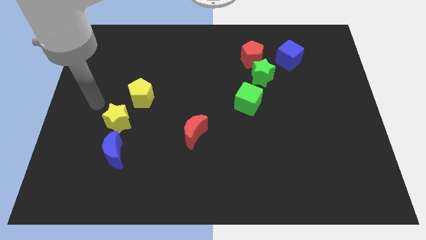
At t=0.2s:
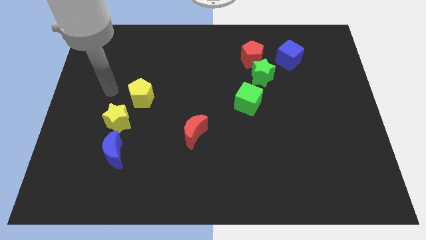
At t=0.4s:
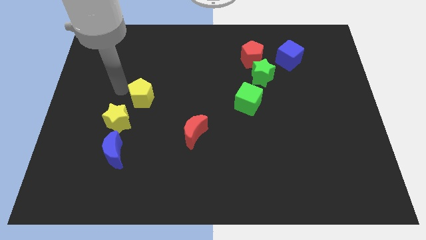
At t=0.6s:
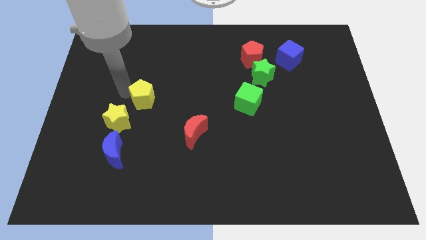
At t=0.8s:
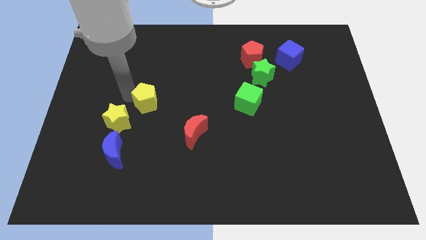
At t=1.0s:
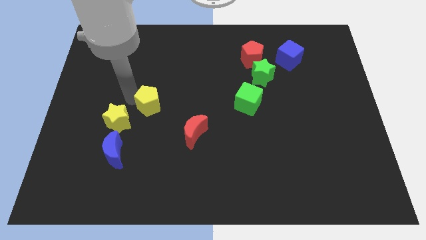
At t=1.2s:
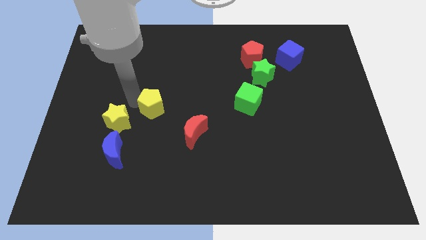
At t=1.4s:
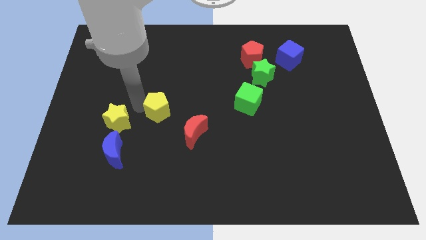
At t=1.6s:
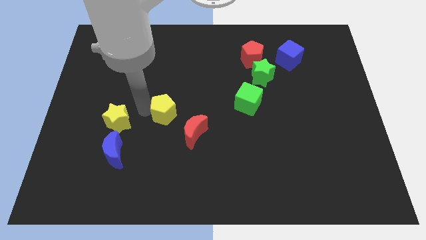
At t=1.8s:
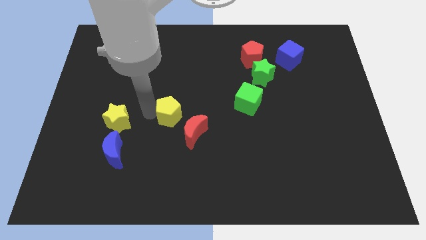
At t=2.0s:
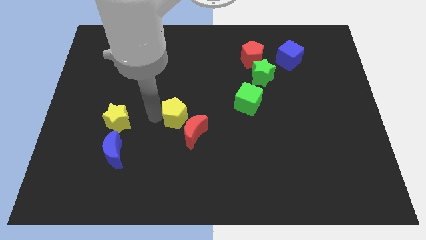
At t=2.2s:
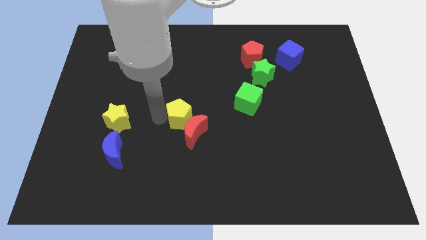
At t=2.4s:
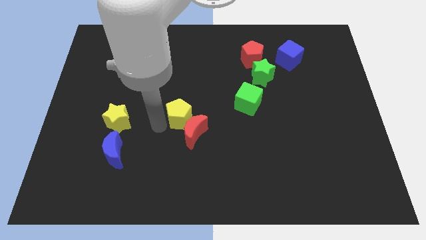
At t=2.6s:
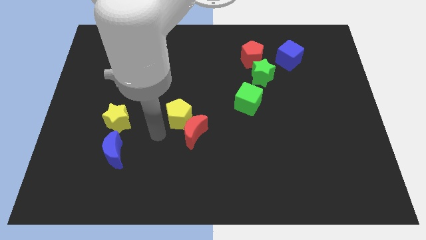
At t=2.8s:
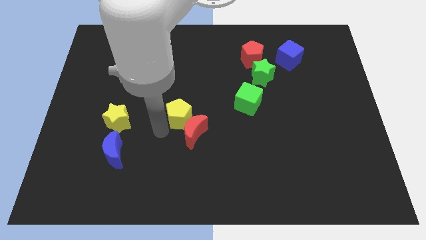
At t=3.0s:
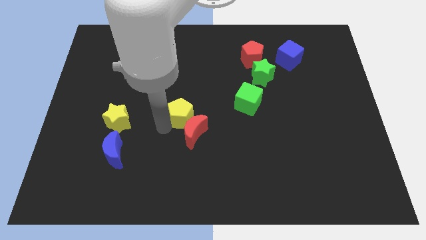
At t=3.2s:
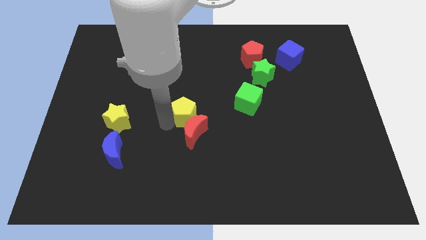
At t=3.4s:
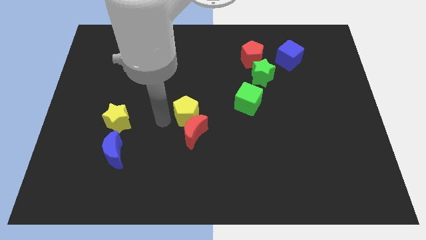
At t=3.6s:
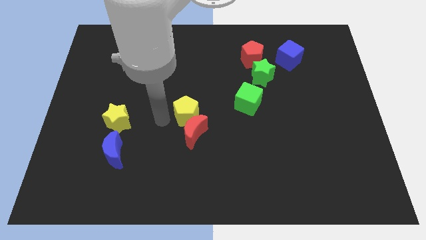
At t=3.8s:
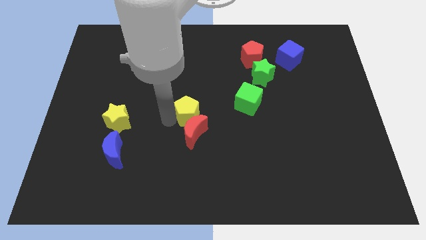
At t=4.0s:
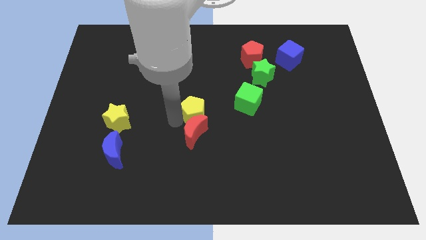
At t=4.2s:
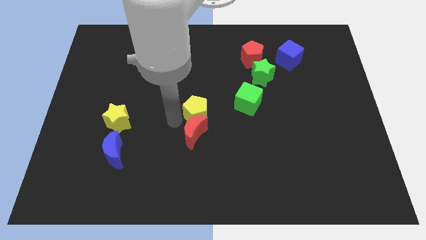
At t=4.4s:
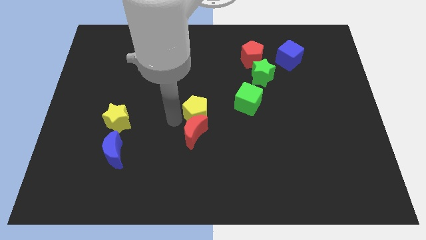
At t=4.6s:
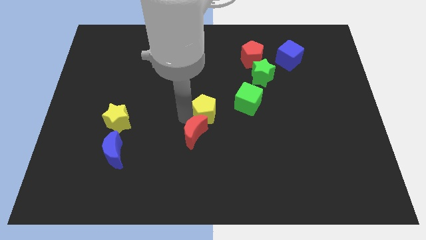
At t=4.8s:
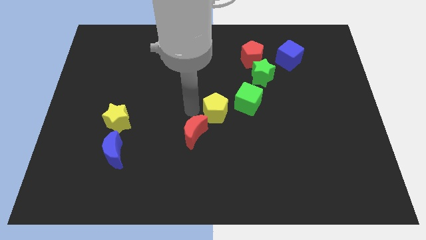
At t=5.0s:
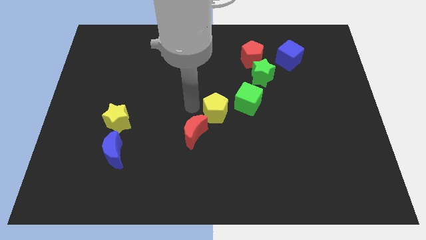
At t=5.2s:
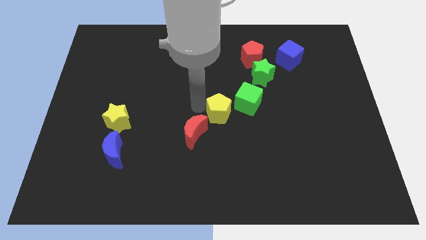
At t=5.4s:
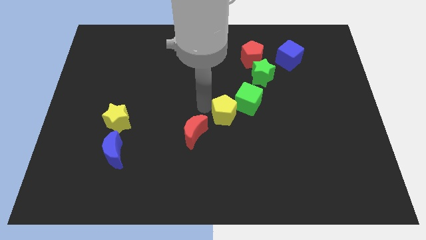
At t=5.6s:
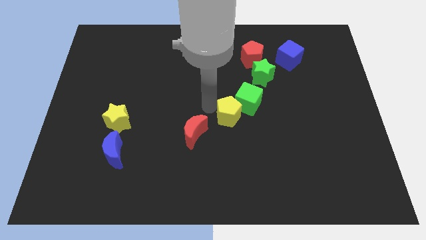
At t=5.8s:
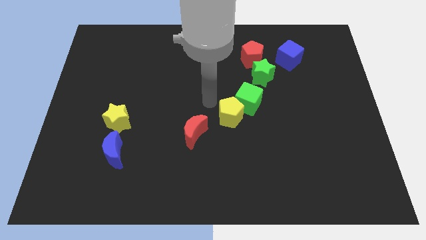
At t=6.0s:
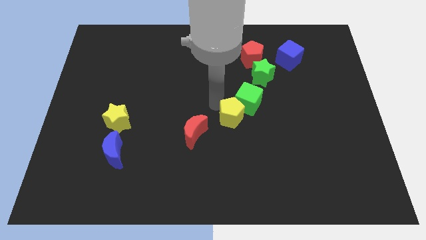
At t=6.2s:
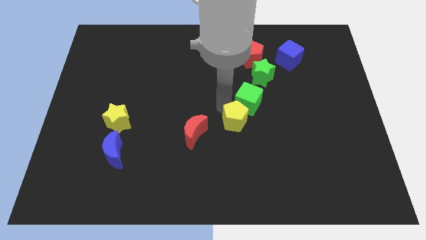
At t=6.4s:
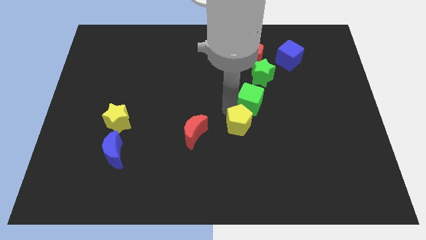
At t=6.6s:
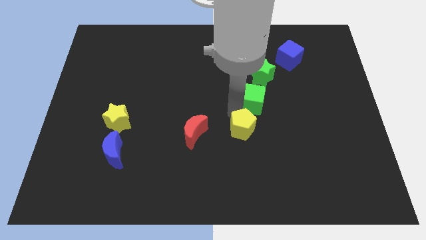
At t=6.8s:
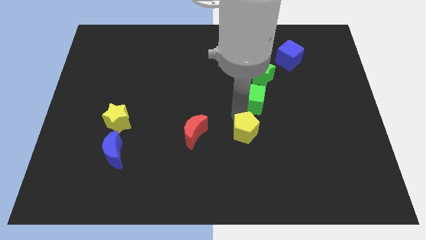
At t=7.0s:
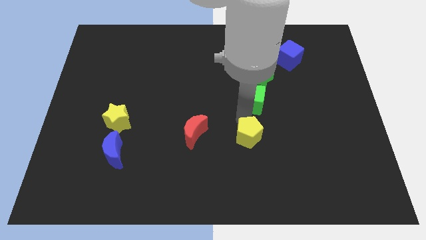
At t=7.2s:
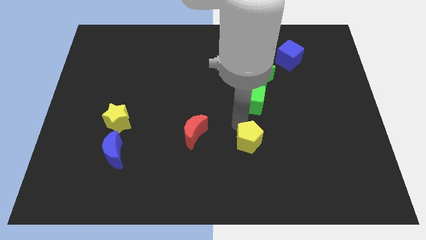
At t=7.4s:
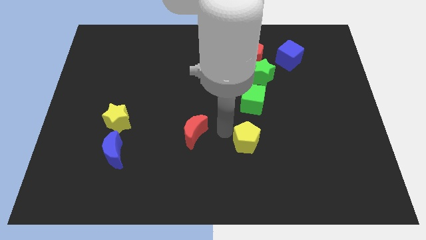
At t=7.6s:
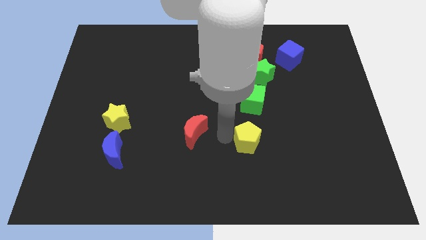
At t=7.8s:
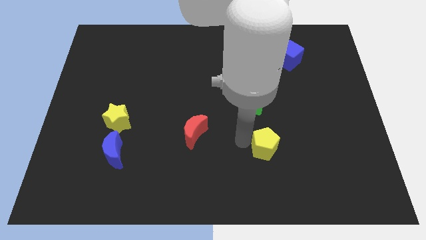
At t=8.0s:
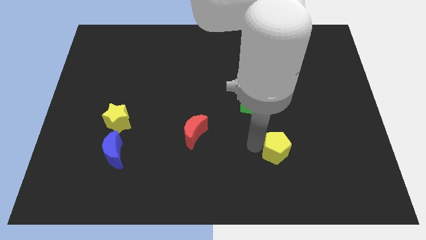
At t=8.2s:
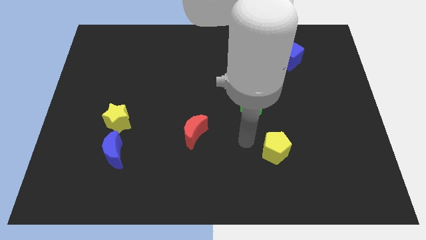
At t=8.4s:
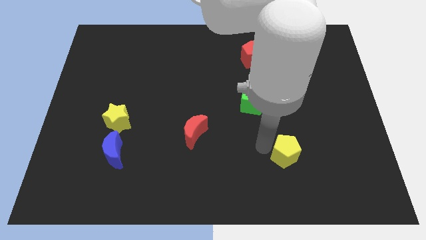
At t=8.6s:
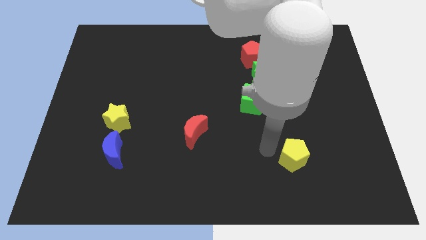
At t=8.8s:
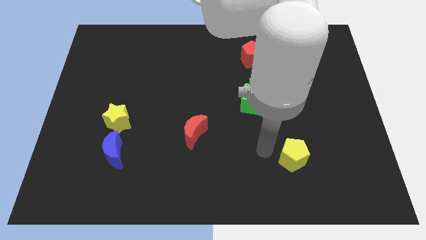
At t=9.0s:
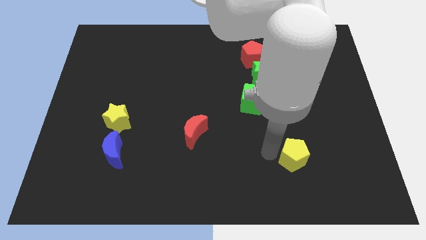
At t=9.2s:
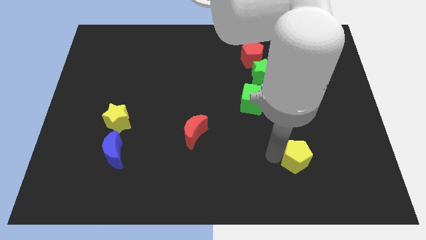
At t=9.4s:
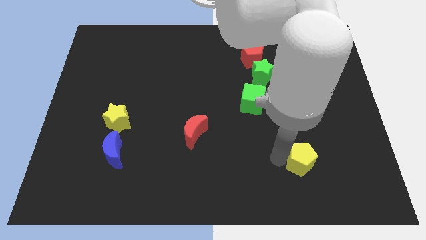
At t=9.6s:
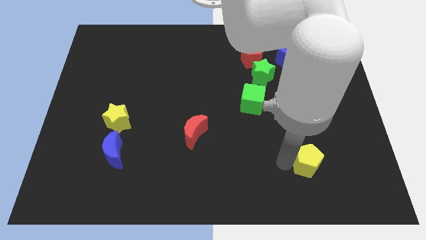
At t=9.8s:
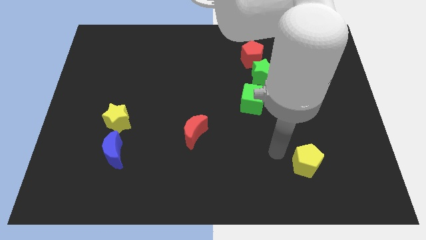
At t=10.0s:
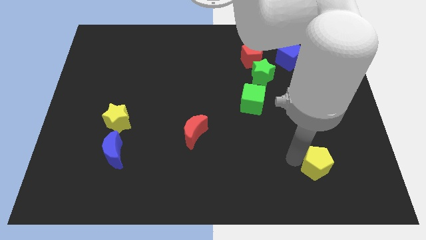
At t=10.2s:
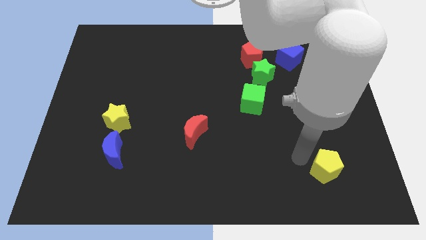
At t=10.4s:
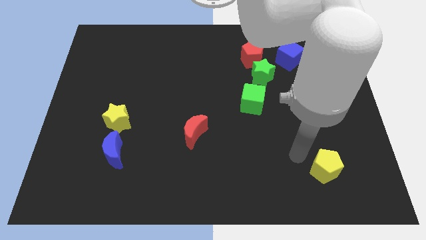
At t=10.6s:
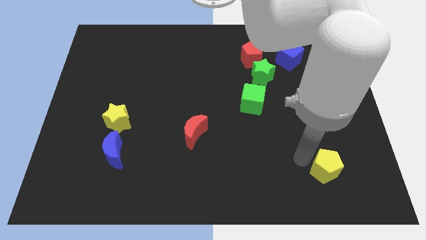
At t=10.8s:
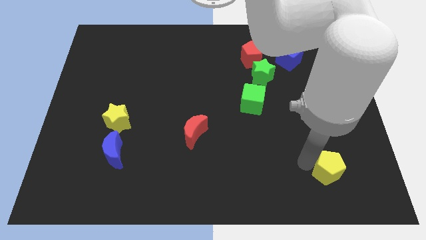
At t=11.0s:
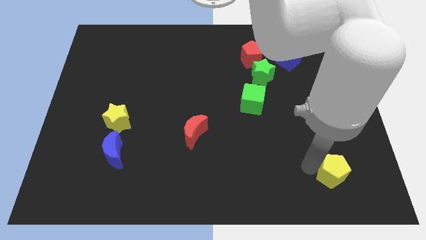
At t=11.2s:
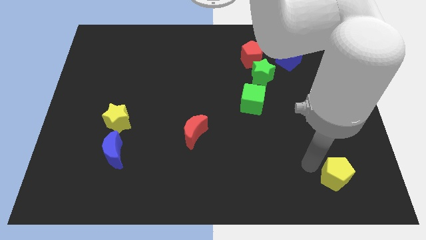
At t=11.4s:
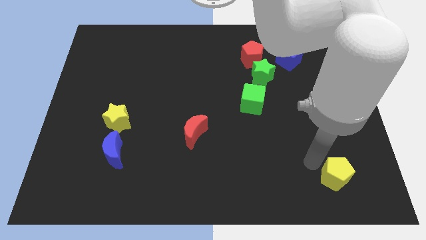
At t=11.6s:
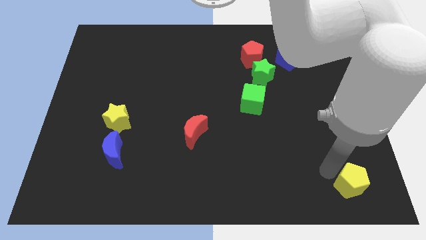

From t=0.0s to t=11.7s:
put the yellow pentagon to the bottom right corner

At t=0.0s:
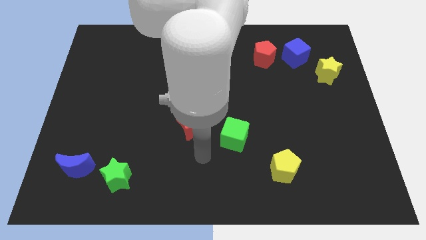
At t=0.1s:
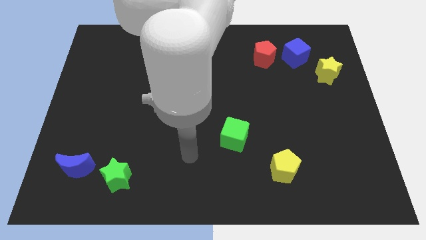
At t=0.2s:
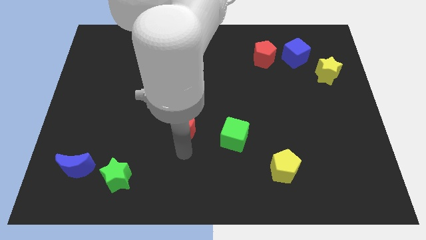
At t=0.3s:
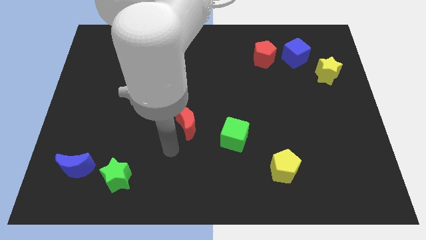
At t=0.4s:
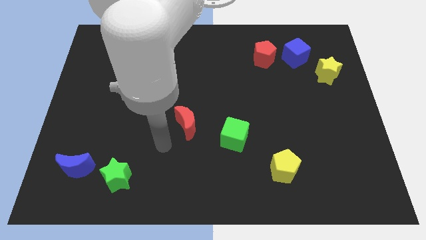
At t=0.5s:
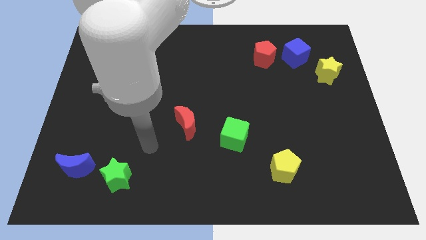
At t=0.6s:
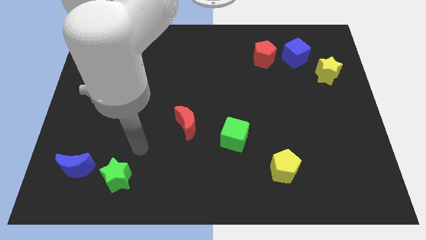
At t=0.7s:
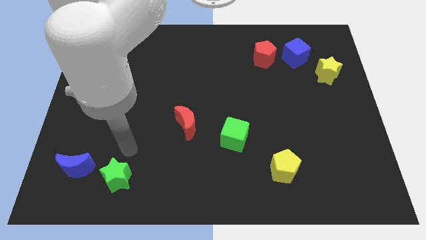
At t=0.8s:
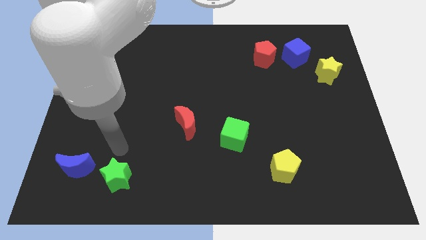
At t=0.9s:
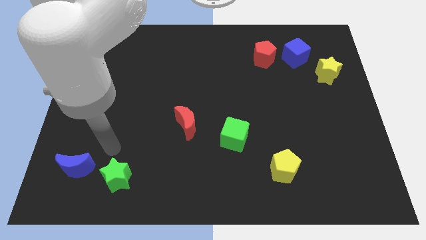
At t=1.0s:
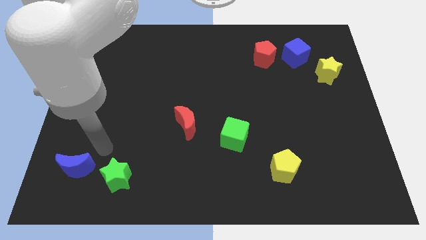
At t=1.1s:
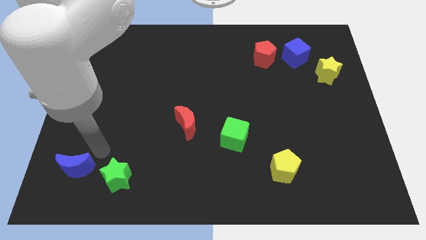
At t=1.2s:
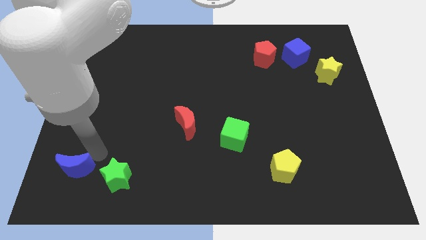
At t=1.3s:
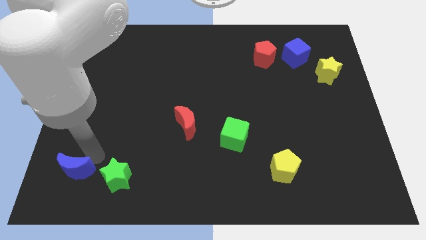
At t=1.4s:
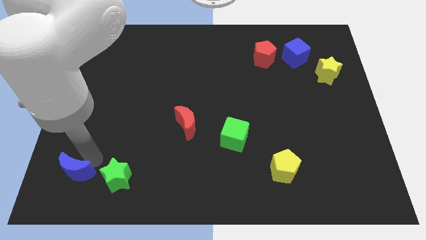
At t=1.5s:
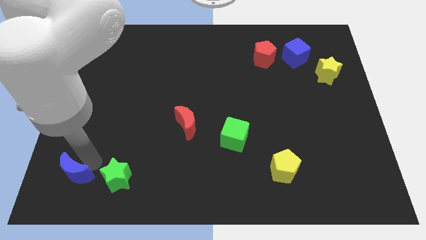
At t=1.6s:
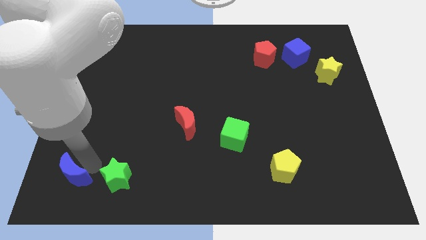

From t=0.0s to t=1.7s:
push the blue moon to the lower left corner
